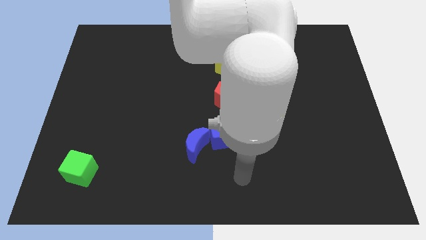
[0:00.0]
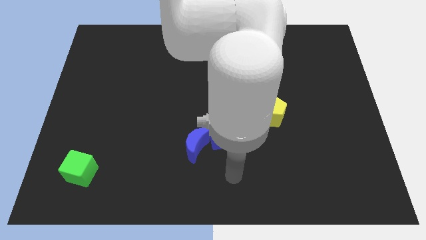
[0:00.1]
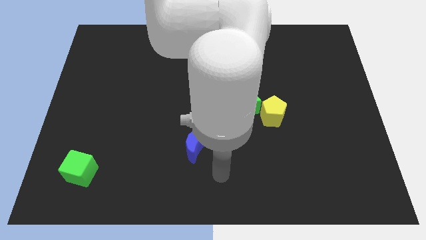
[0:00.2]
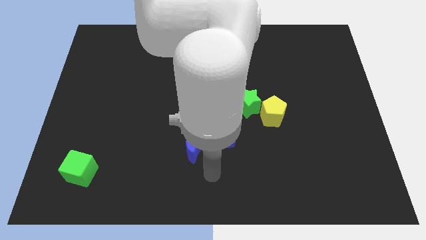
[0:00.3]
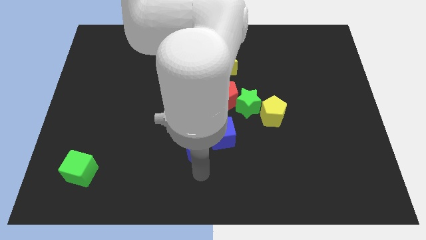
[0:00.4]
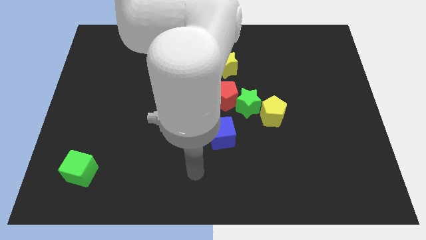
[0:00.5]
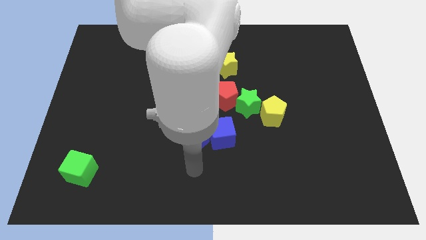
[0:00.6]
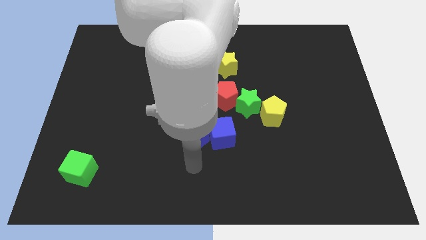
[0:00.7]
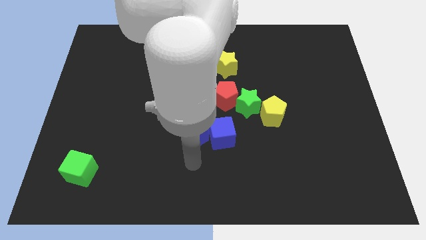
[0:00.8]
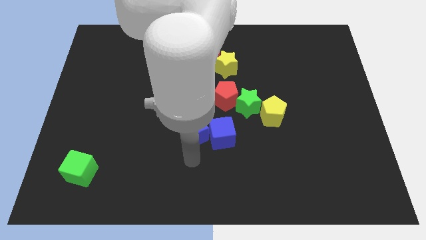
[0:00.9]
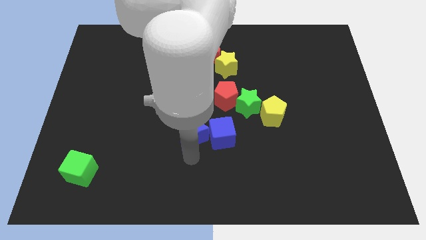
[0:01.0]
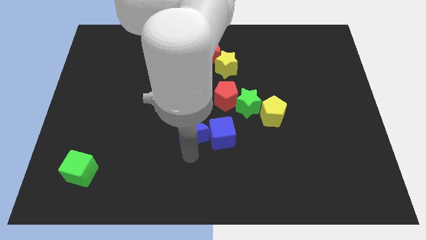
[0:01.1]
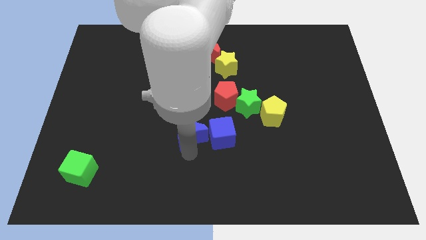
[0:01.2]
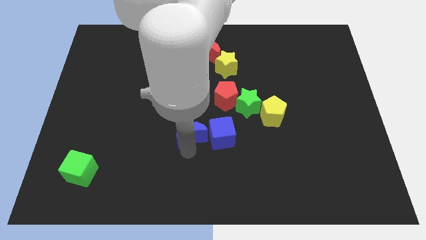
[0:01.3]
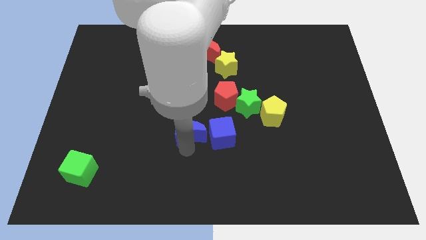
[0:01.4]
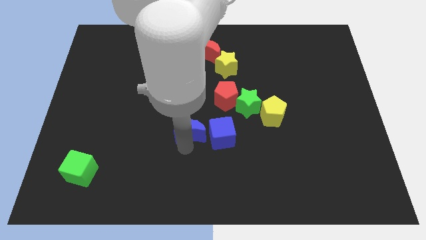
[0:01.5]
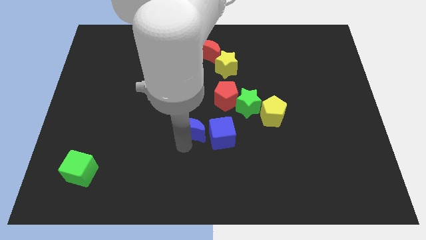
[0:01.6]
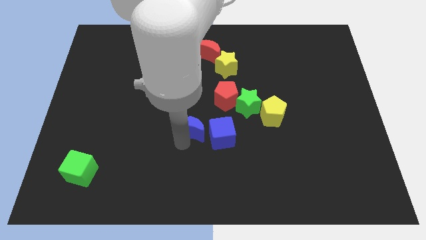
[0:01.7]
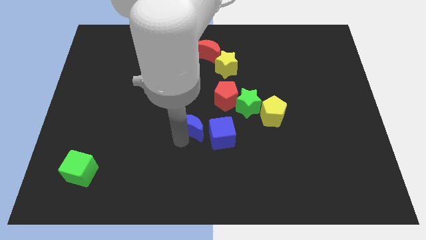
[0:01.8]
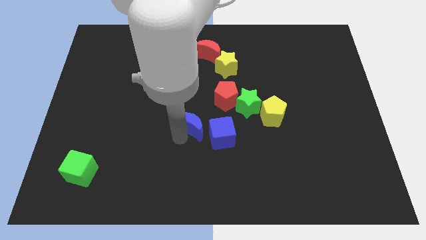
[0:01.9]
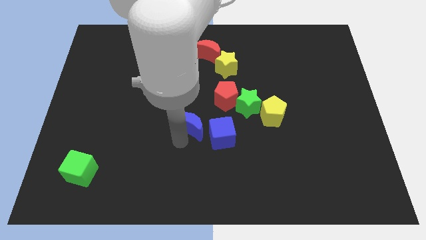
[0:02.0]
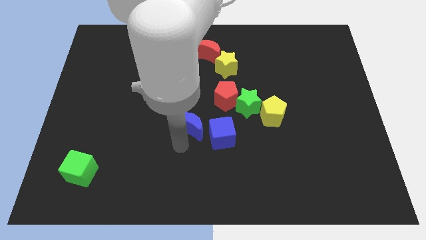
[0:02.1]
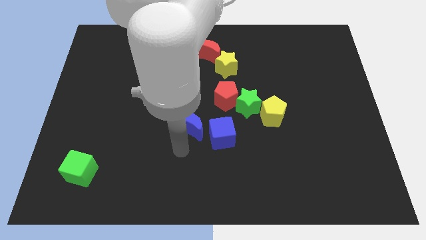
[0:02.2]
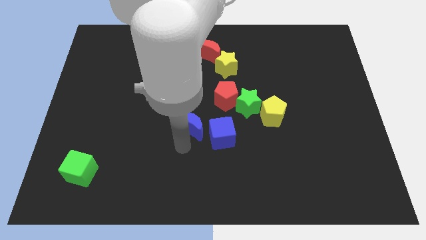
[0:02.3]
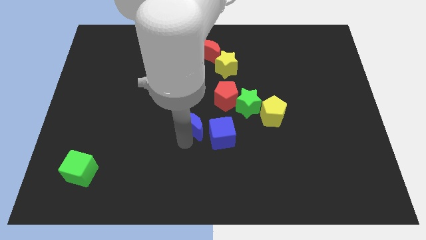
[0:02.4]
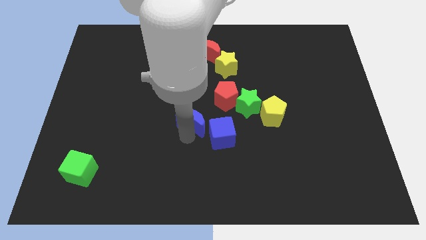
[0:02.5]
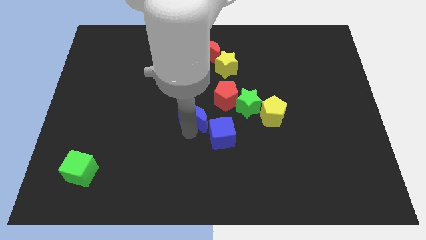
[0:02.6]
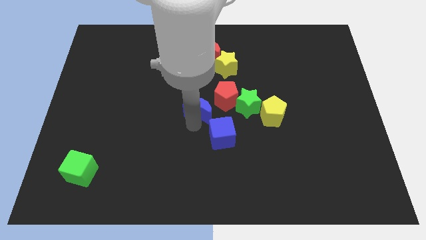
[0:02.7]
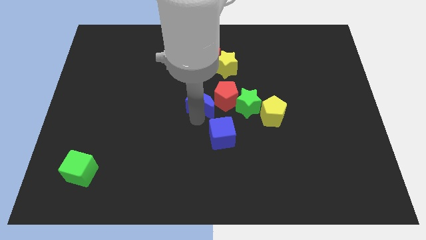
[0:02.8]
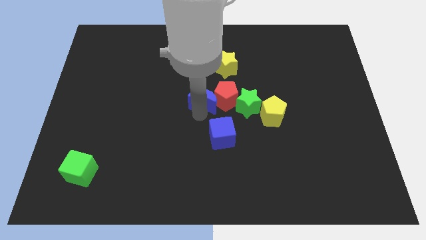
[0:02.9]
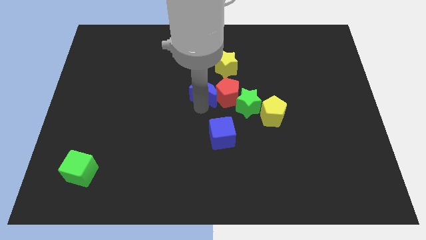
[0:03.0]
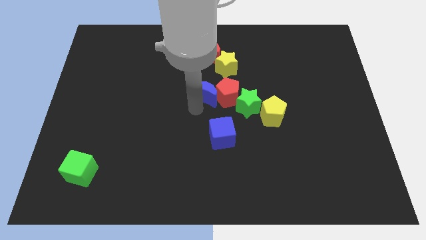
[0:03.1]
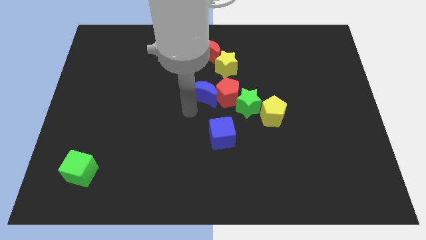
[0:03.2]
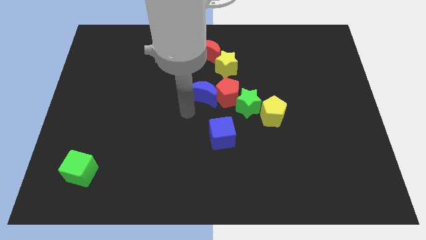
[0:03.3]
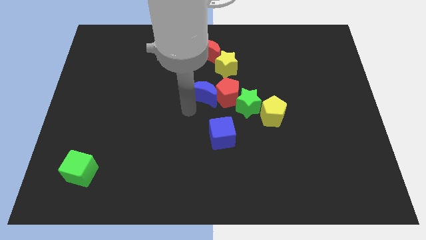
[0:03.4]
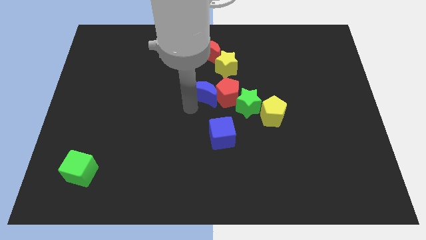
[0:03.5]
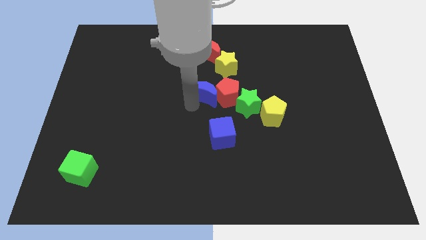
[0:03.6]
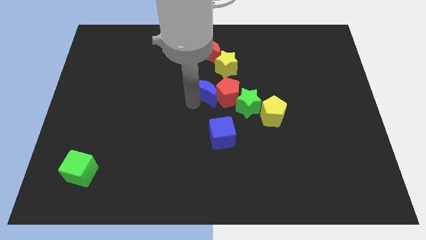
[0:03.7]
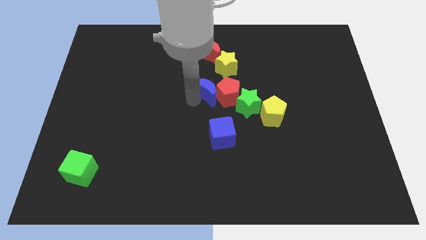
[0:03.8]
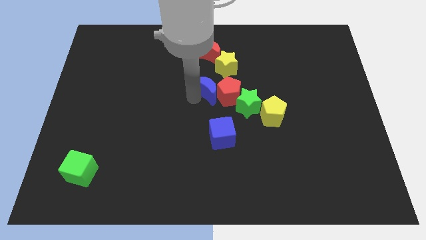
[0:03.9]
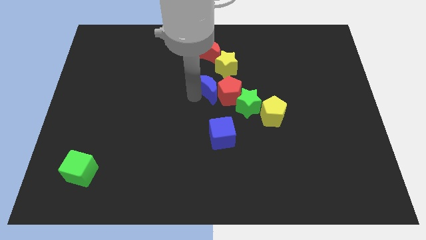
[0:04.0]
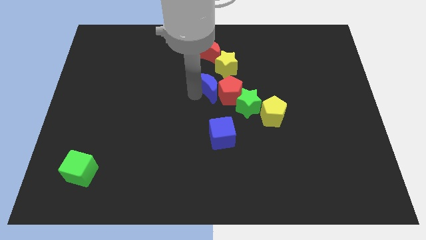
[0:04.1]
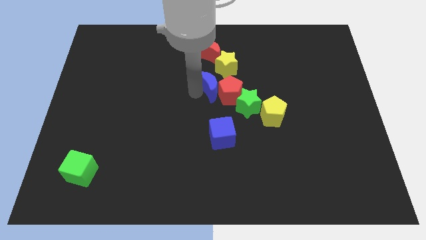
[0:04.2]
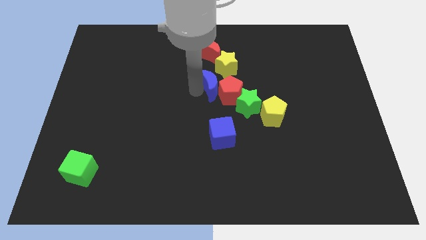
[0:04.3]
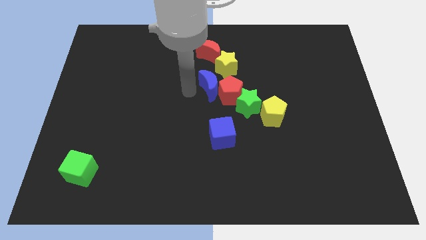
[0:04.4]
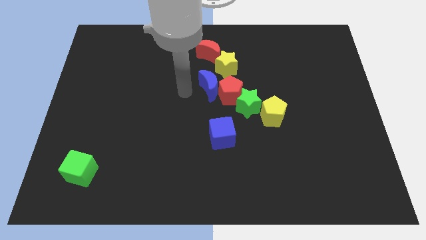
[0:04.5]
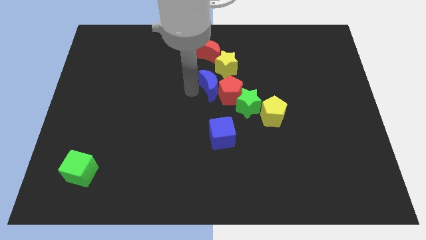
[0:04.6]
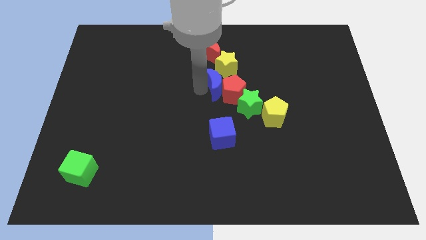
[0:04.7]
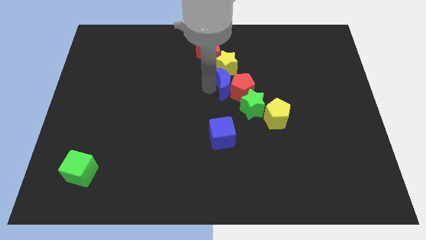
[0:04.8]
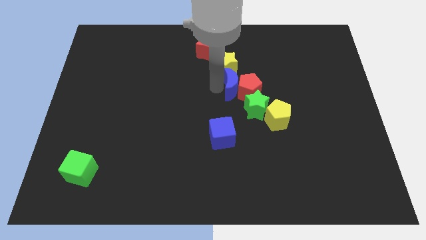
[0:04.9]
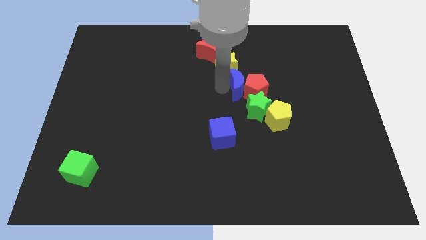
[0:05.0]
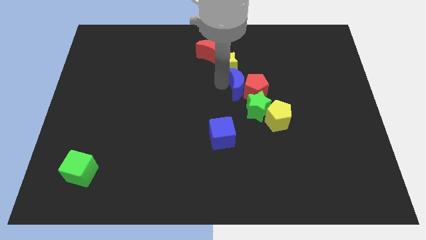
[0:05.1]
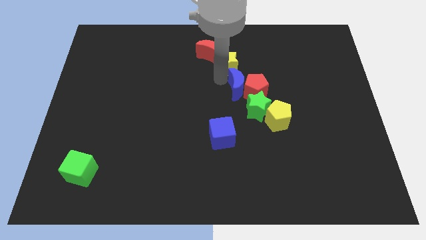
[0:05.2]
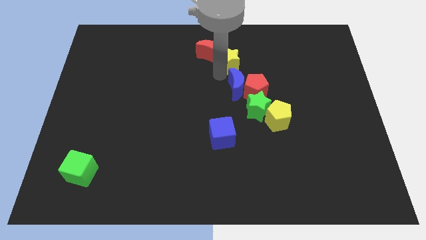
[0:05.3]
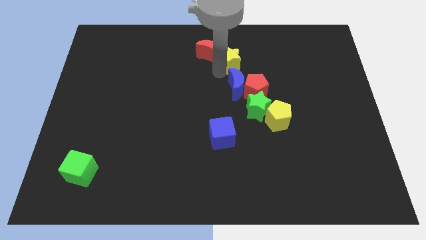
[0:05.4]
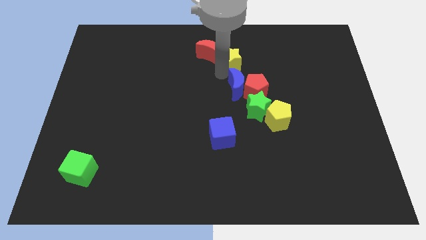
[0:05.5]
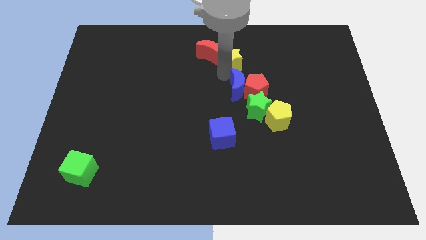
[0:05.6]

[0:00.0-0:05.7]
put the blue moon to the top left of the yellow pentagon

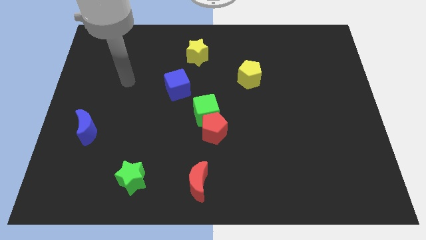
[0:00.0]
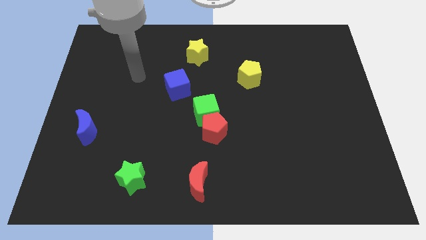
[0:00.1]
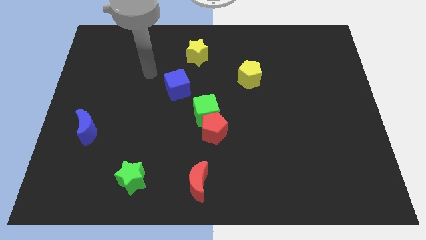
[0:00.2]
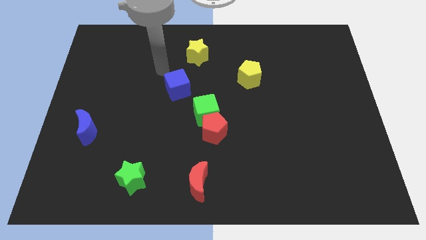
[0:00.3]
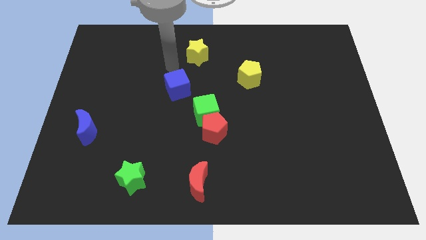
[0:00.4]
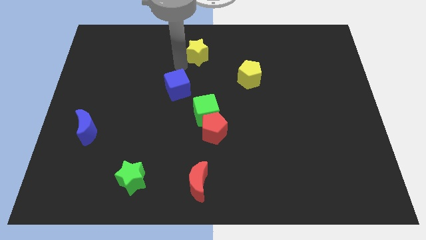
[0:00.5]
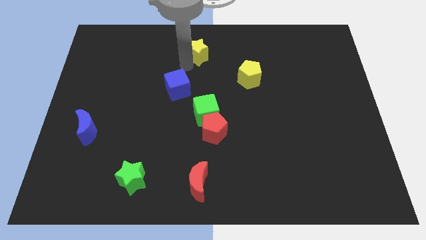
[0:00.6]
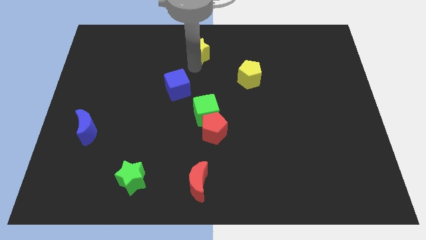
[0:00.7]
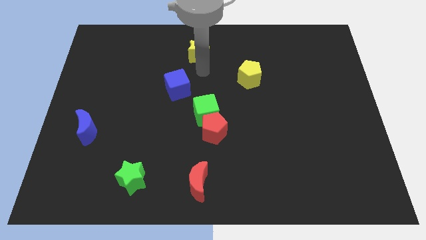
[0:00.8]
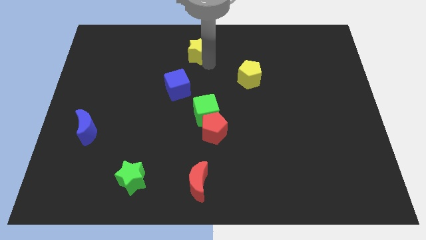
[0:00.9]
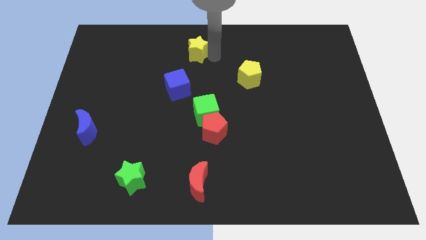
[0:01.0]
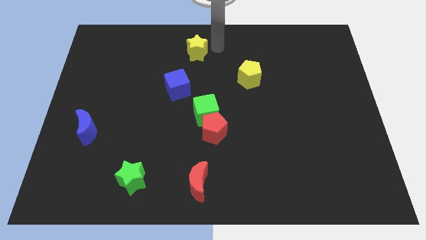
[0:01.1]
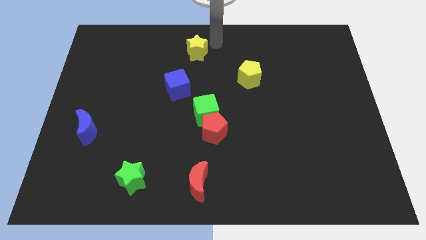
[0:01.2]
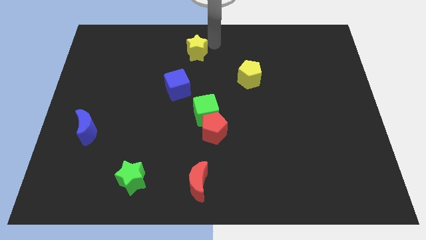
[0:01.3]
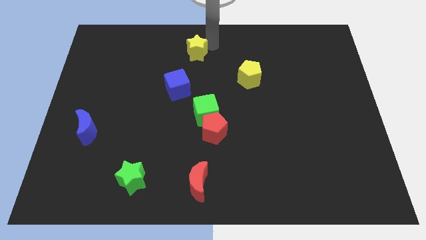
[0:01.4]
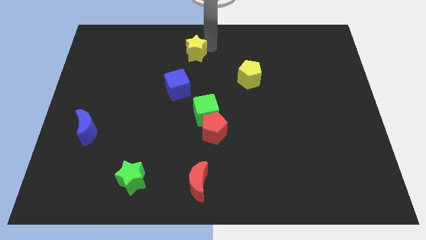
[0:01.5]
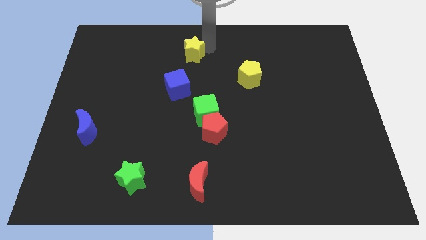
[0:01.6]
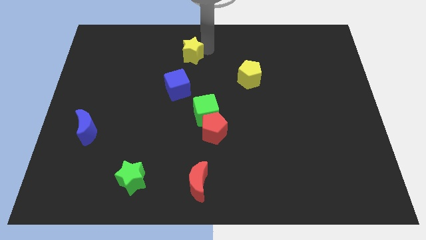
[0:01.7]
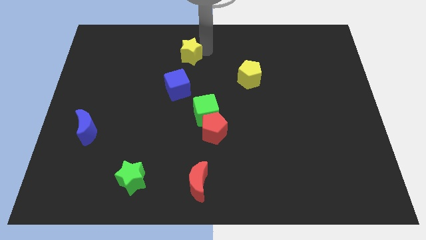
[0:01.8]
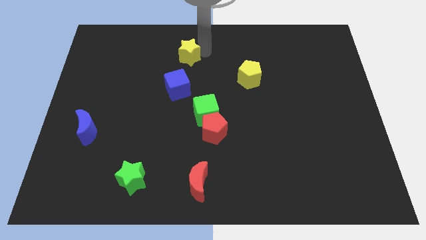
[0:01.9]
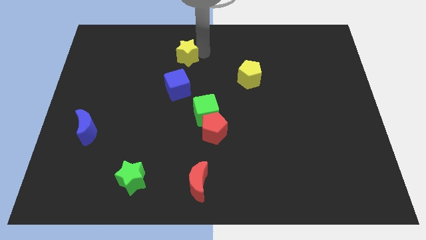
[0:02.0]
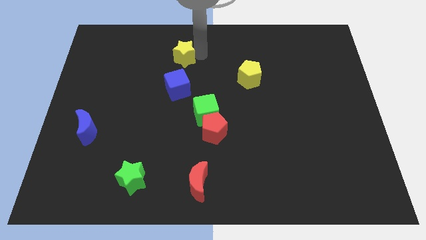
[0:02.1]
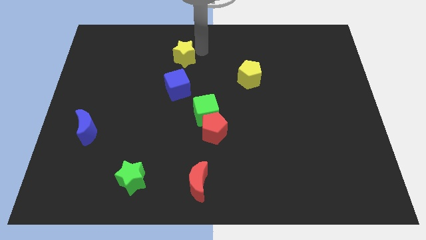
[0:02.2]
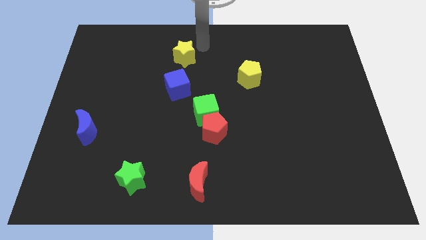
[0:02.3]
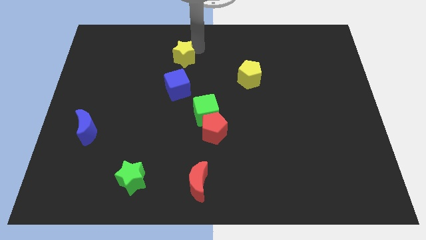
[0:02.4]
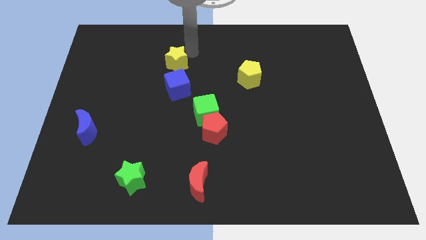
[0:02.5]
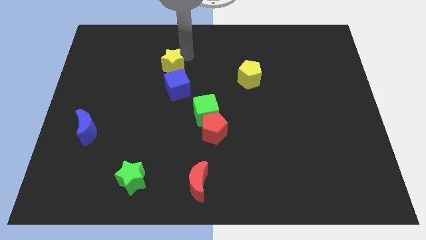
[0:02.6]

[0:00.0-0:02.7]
slide the yellow star to the top left of the blue cube

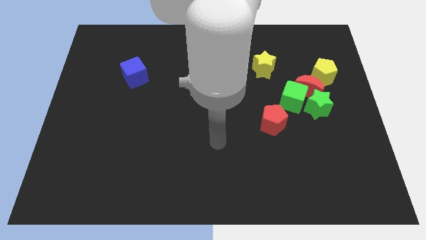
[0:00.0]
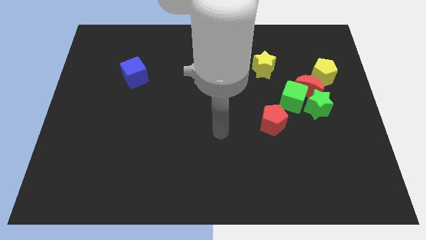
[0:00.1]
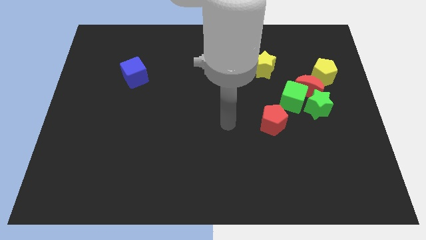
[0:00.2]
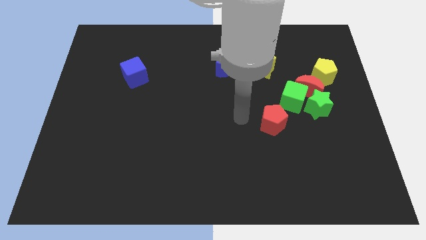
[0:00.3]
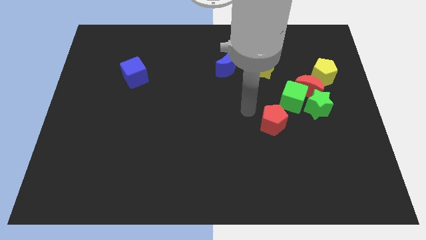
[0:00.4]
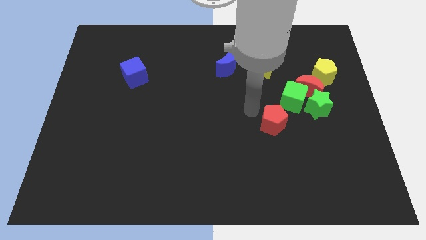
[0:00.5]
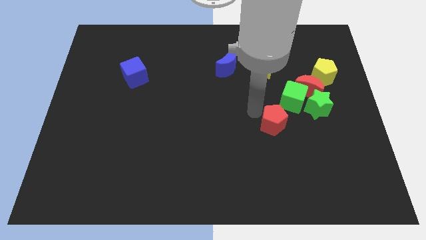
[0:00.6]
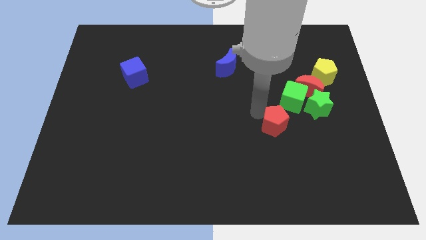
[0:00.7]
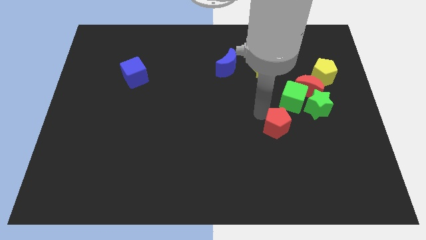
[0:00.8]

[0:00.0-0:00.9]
push the red pentagon below the green cube
